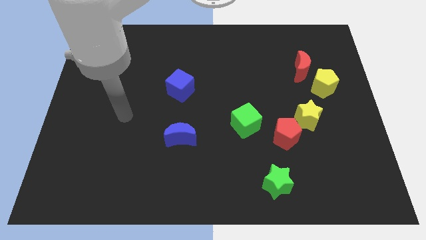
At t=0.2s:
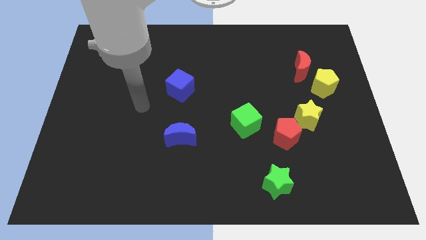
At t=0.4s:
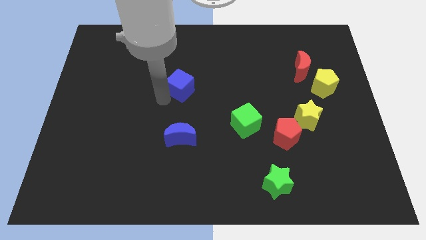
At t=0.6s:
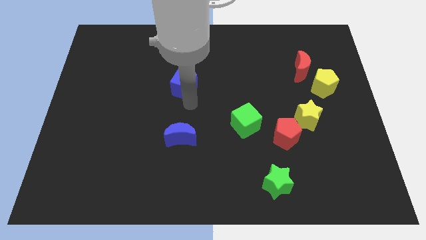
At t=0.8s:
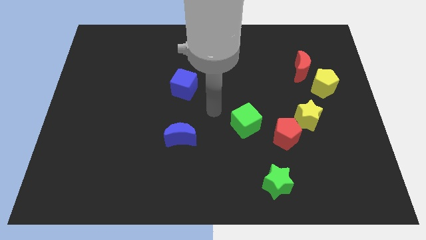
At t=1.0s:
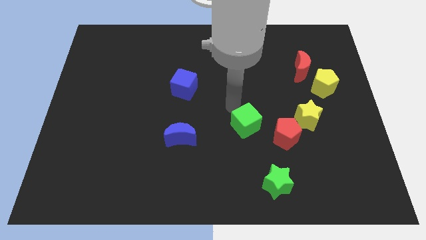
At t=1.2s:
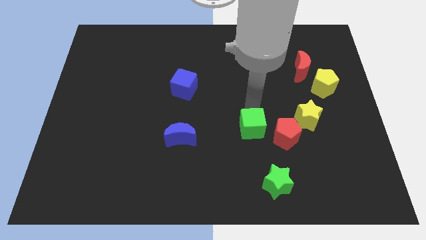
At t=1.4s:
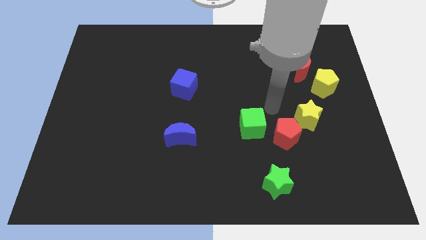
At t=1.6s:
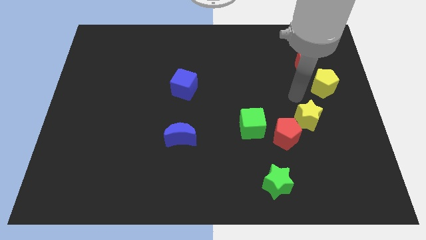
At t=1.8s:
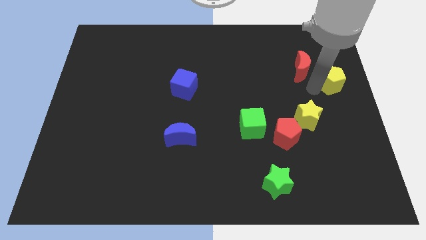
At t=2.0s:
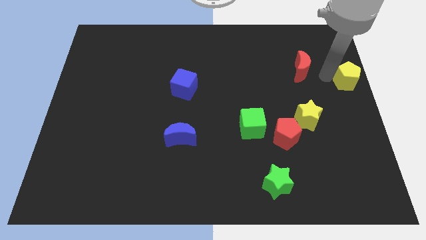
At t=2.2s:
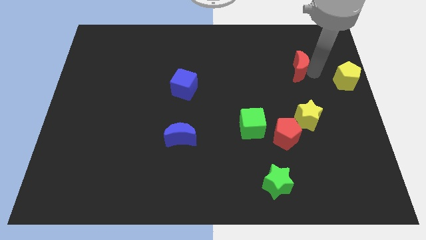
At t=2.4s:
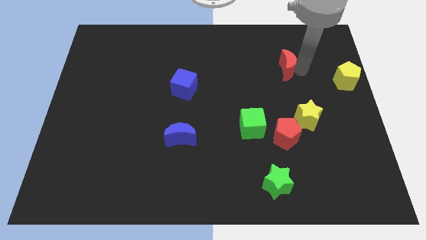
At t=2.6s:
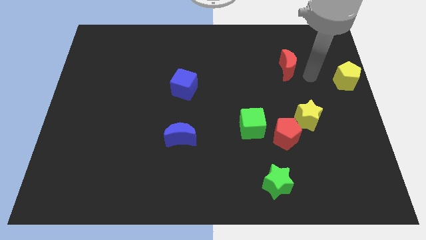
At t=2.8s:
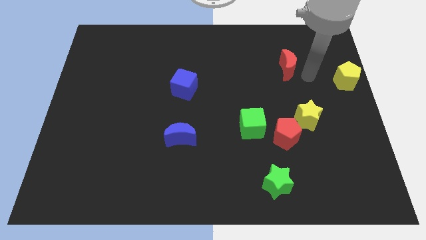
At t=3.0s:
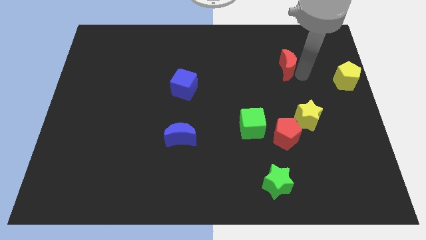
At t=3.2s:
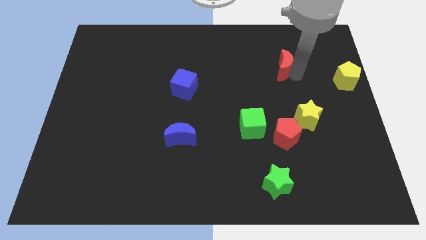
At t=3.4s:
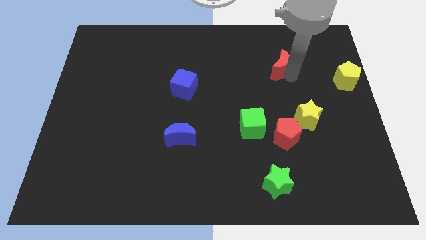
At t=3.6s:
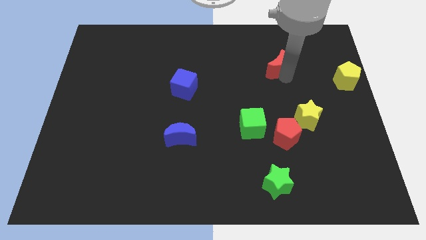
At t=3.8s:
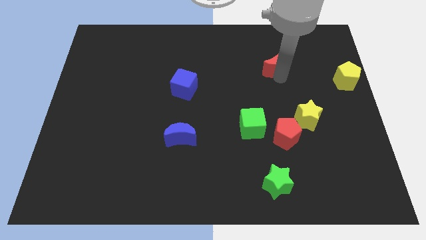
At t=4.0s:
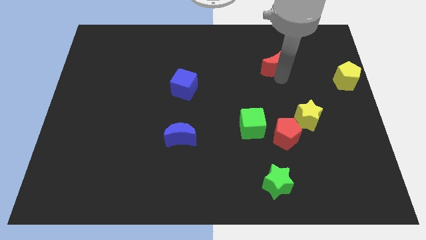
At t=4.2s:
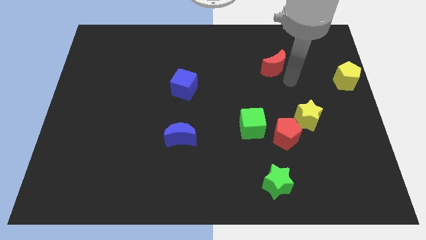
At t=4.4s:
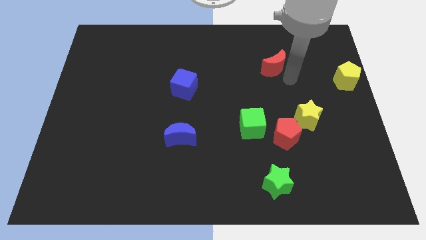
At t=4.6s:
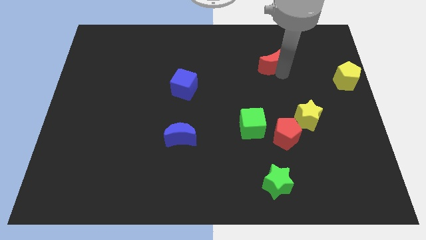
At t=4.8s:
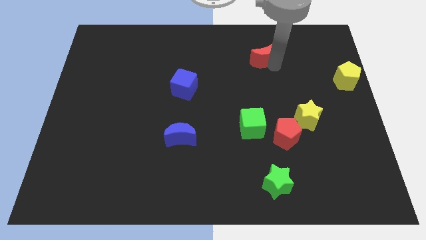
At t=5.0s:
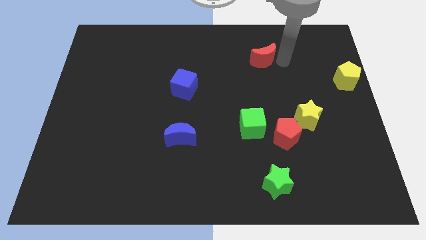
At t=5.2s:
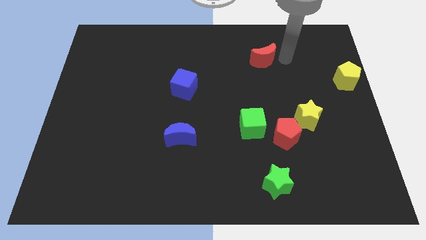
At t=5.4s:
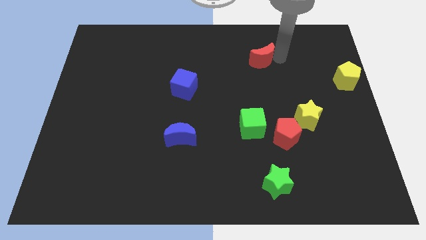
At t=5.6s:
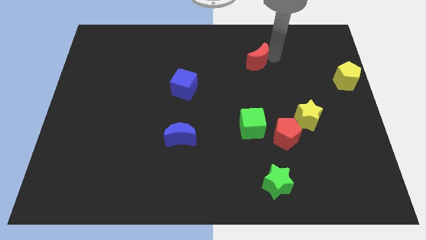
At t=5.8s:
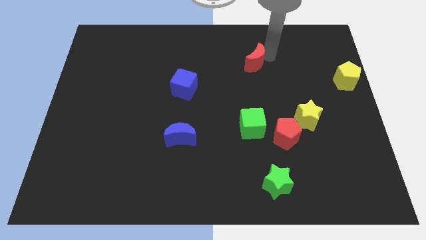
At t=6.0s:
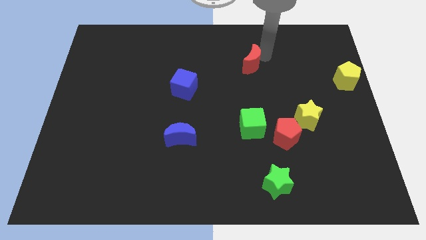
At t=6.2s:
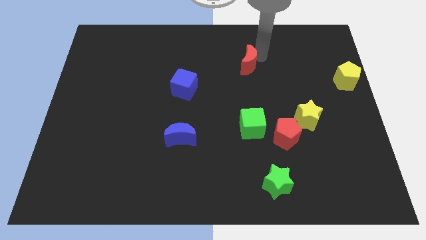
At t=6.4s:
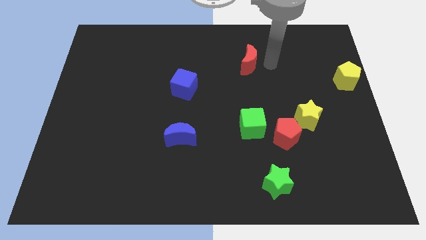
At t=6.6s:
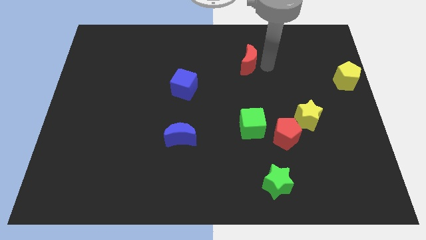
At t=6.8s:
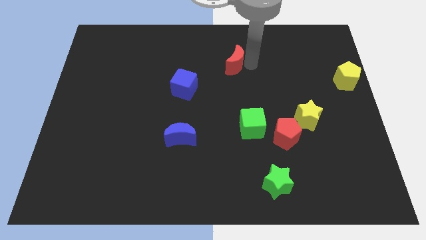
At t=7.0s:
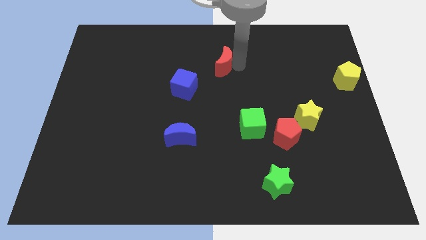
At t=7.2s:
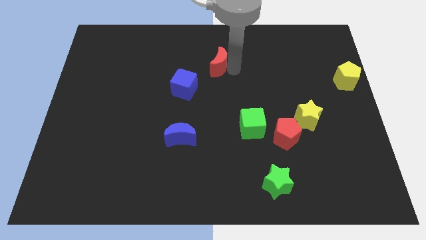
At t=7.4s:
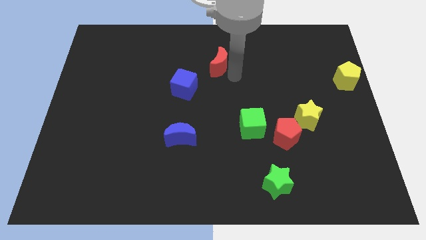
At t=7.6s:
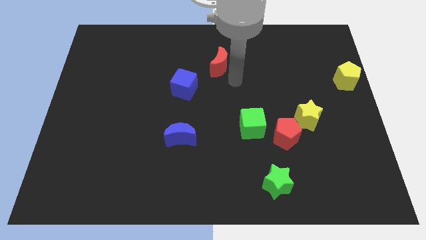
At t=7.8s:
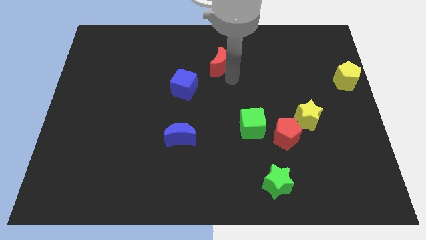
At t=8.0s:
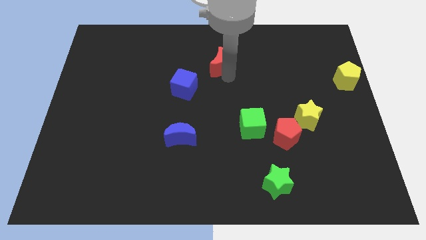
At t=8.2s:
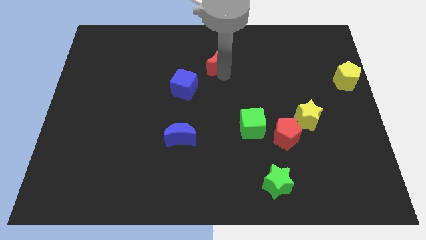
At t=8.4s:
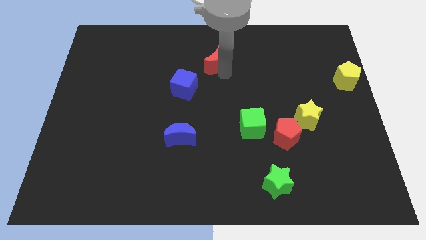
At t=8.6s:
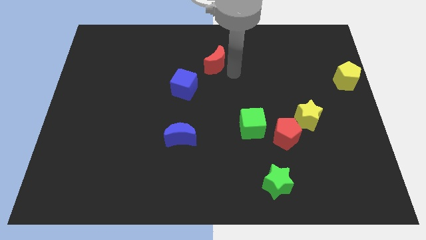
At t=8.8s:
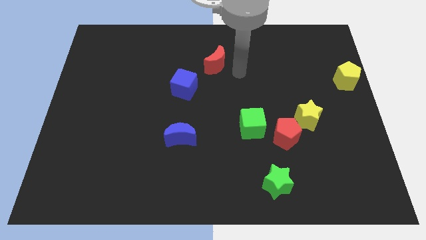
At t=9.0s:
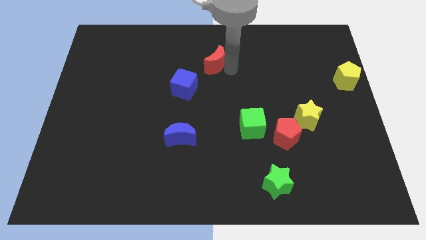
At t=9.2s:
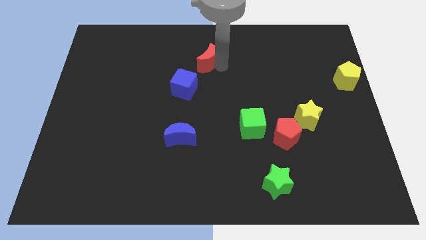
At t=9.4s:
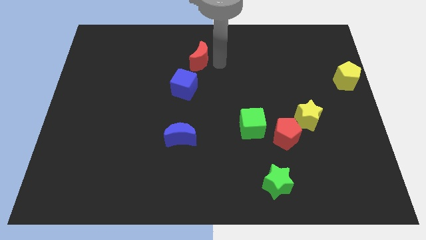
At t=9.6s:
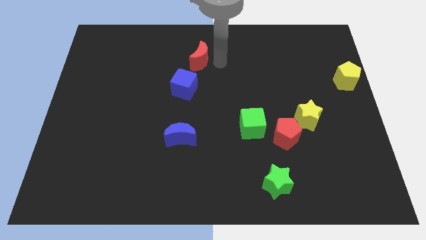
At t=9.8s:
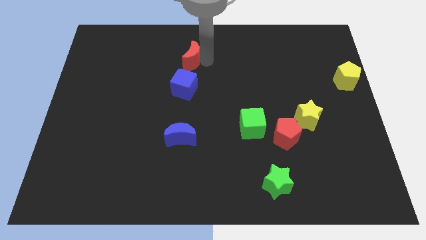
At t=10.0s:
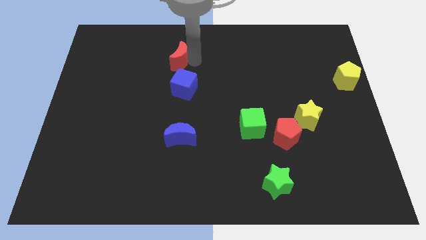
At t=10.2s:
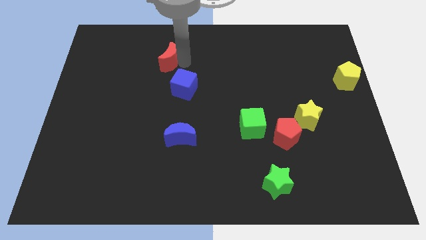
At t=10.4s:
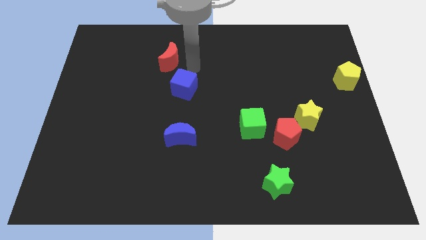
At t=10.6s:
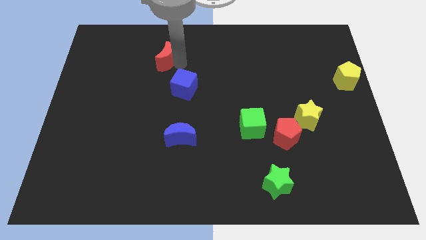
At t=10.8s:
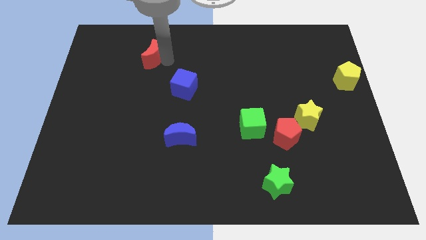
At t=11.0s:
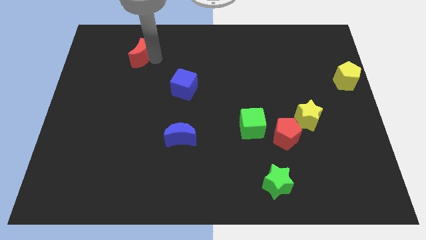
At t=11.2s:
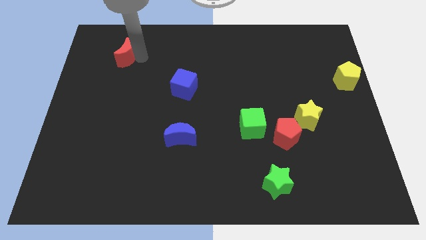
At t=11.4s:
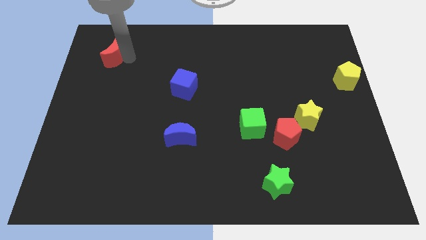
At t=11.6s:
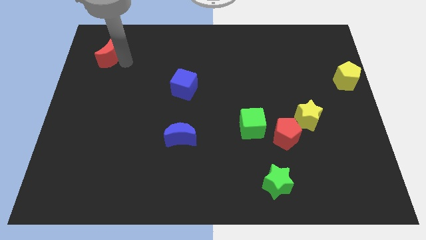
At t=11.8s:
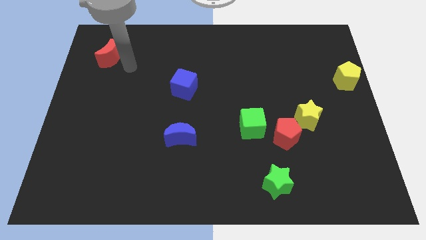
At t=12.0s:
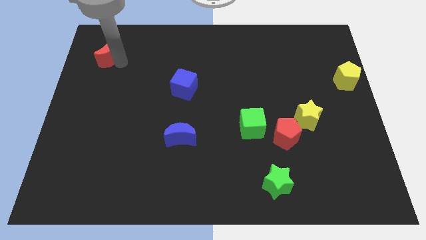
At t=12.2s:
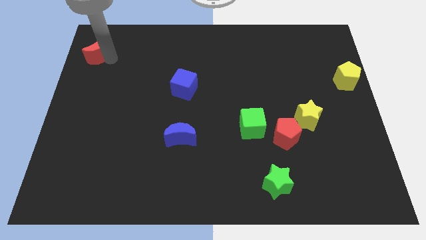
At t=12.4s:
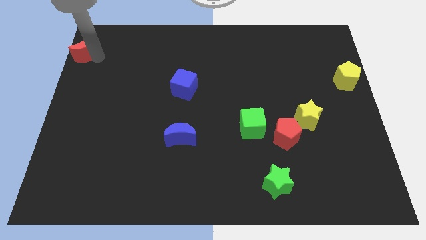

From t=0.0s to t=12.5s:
move the red moon to the top left
